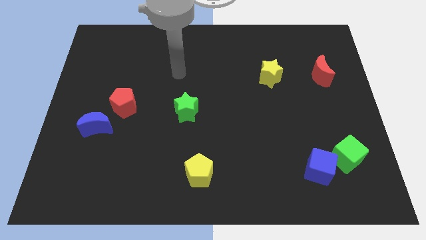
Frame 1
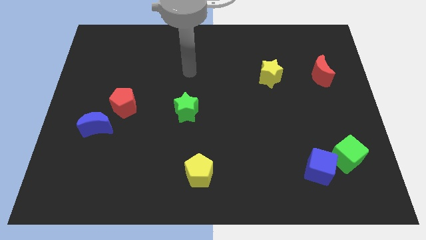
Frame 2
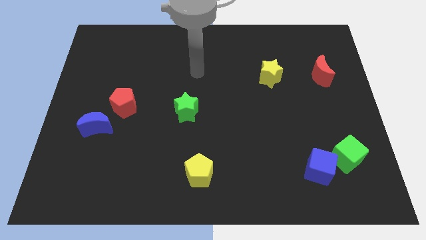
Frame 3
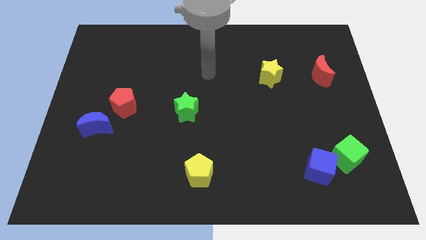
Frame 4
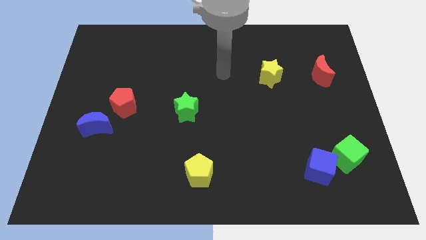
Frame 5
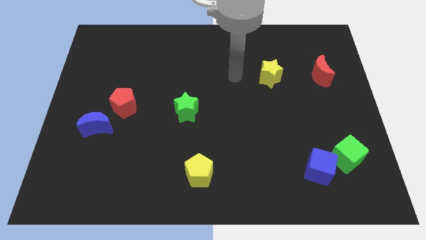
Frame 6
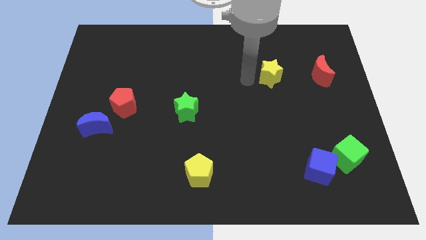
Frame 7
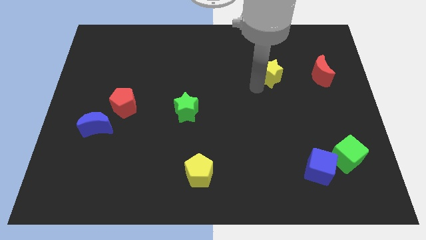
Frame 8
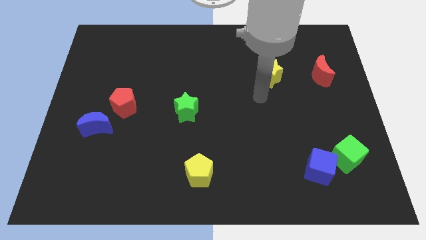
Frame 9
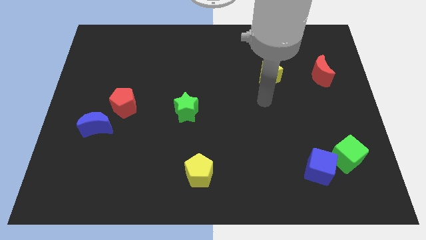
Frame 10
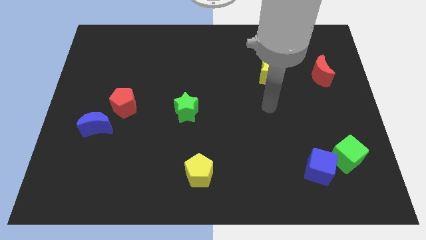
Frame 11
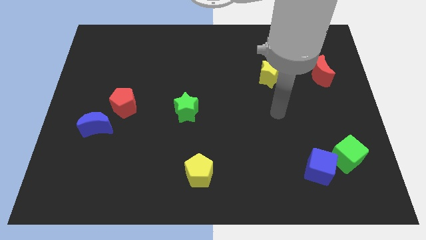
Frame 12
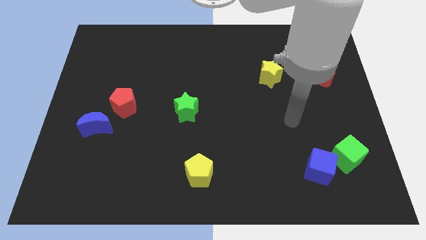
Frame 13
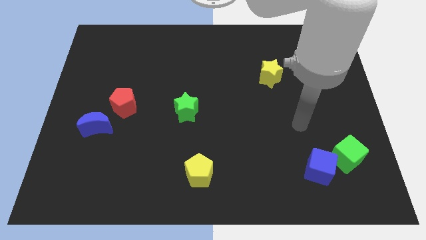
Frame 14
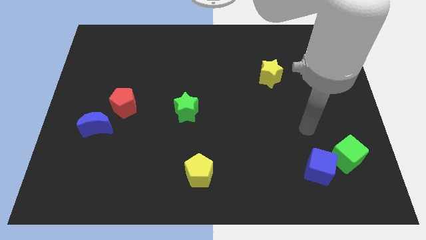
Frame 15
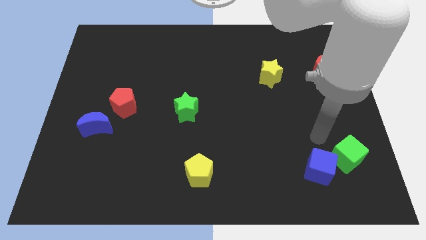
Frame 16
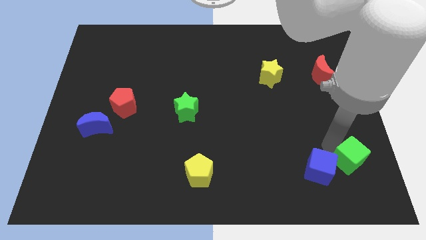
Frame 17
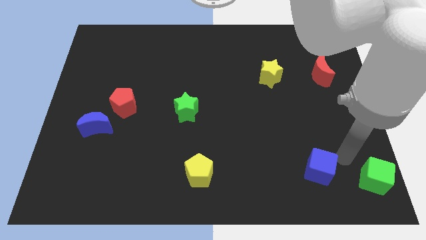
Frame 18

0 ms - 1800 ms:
separate the blue cube from the green cube

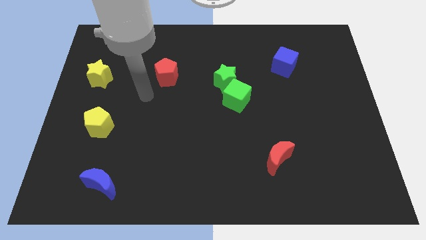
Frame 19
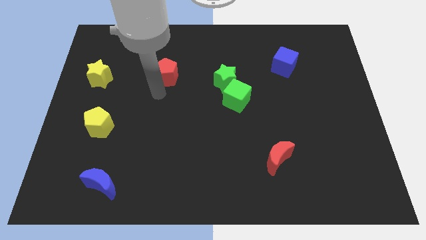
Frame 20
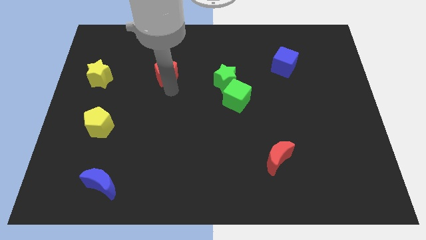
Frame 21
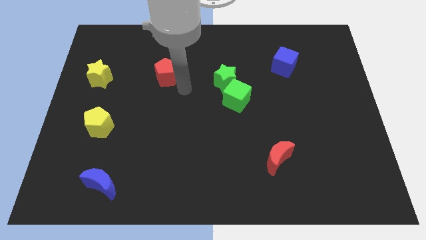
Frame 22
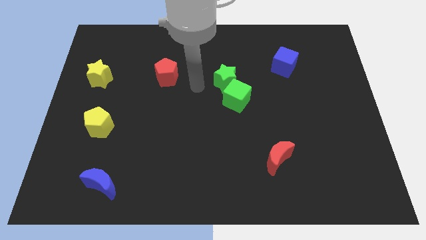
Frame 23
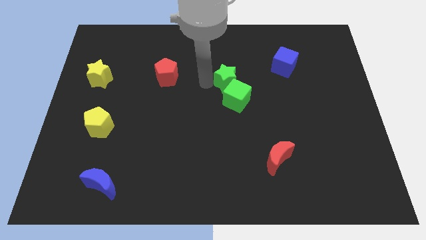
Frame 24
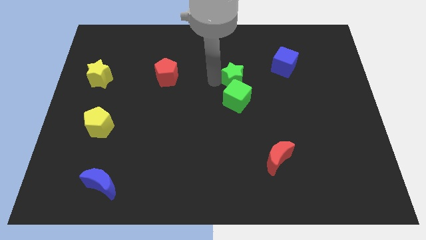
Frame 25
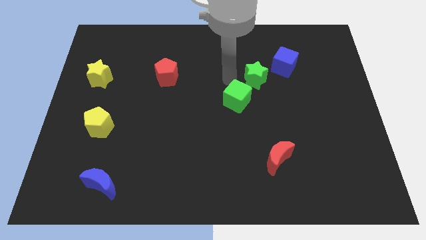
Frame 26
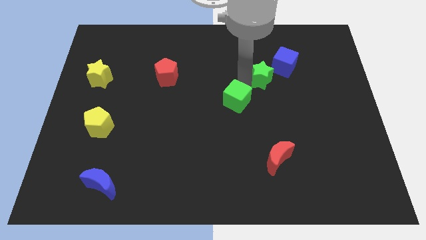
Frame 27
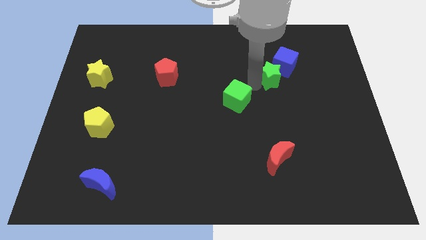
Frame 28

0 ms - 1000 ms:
separate the green cube from the green star

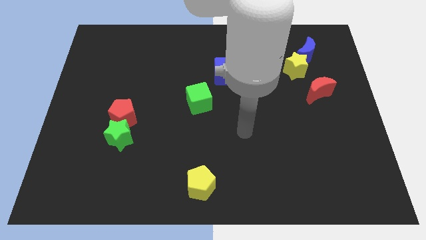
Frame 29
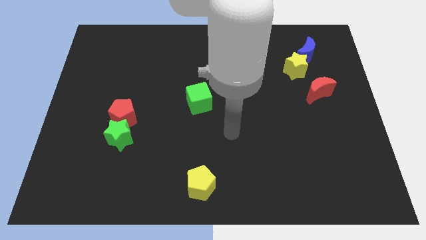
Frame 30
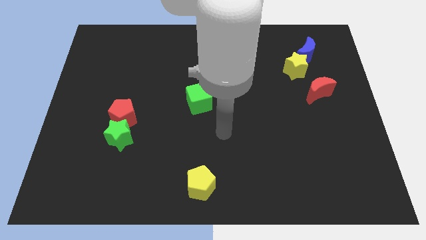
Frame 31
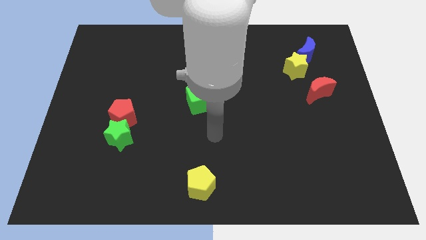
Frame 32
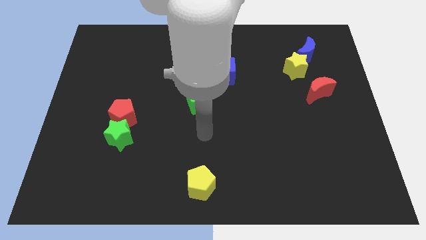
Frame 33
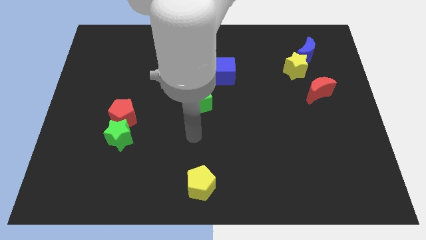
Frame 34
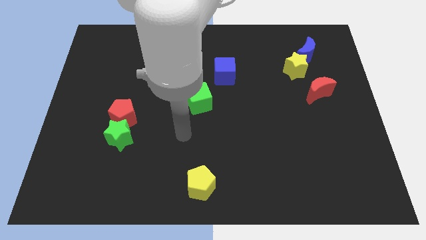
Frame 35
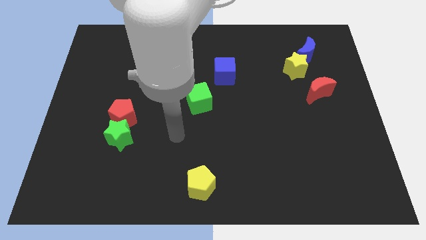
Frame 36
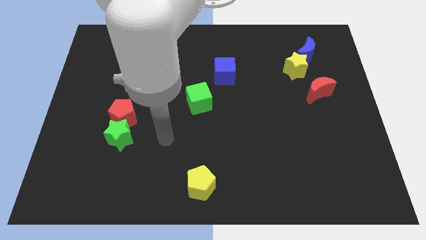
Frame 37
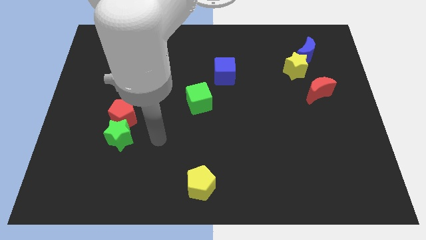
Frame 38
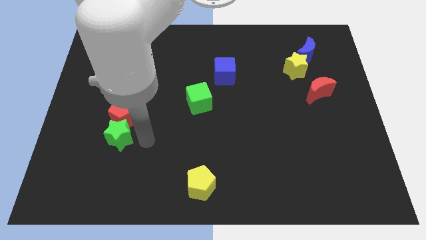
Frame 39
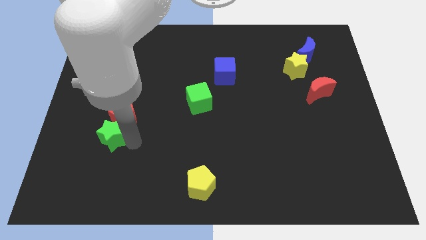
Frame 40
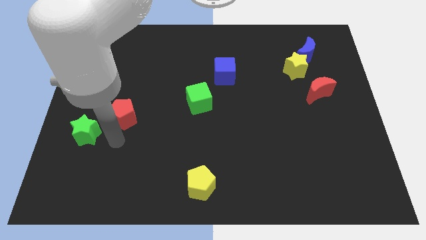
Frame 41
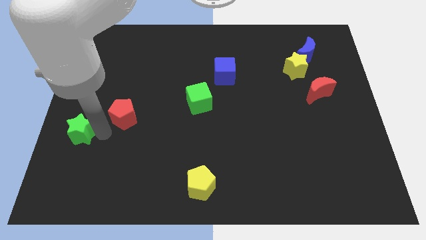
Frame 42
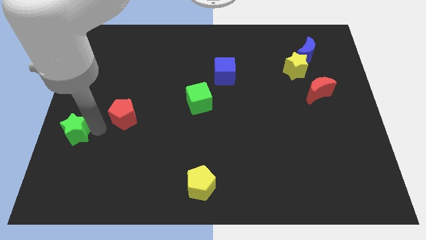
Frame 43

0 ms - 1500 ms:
separate the red pentagon from the green star

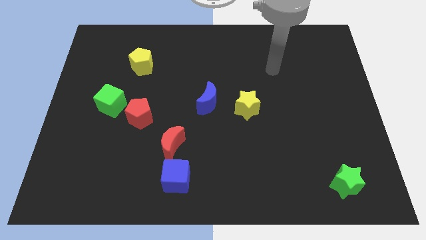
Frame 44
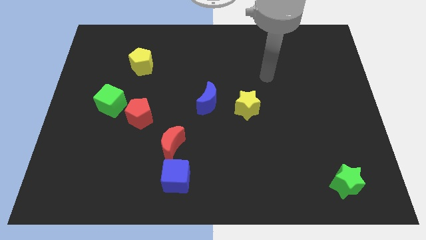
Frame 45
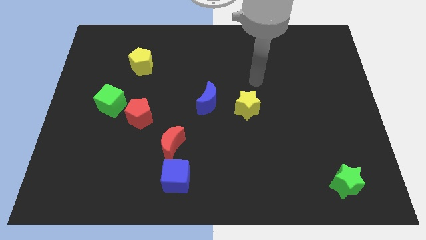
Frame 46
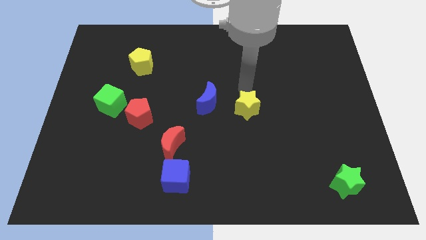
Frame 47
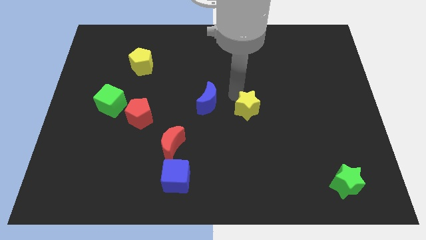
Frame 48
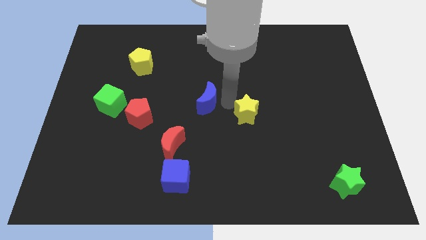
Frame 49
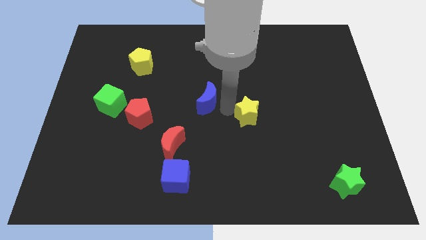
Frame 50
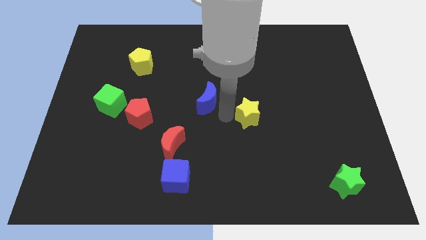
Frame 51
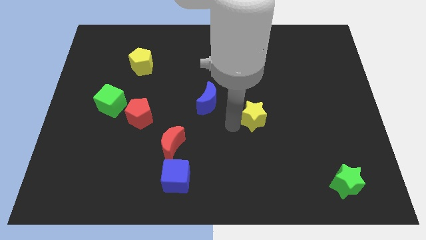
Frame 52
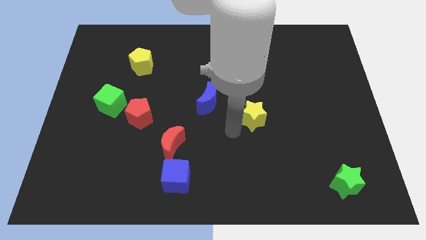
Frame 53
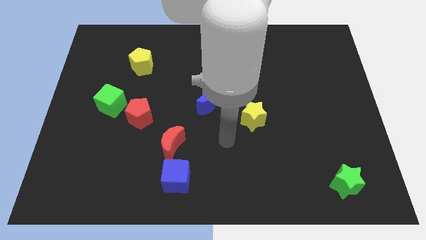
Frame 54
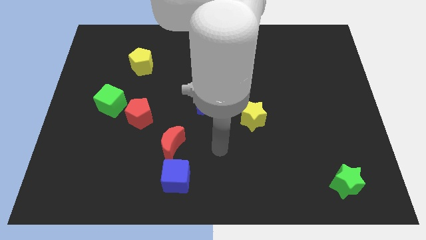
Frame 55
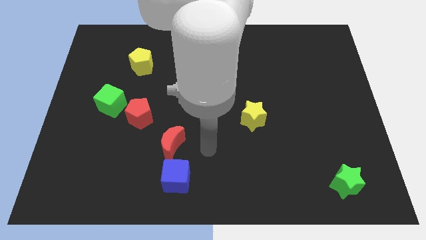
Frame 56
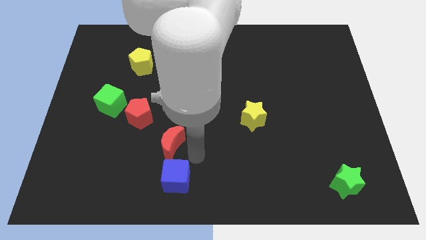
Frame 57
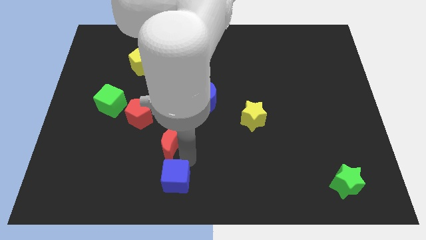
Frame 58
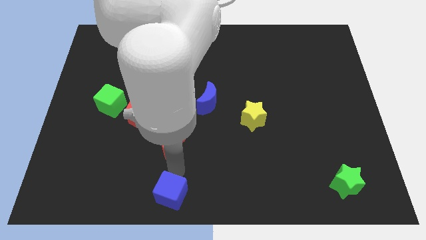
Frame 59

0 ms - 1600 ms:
pull the red moon apart from the blue cube

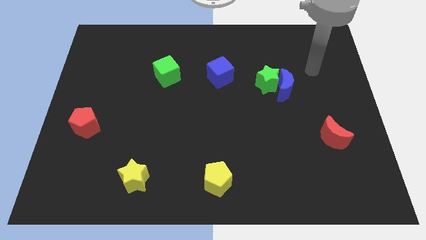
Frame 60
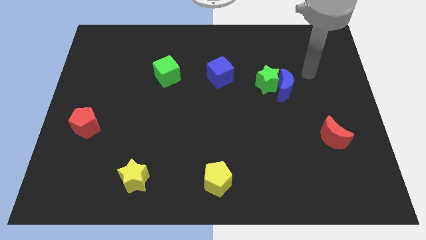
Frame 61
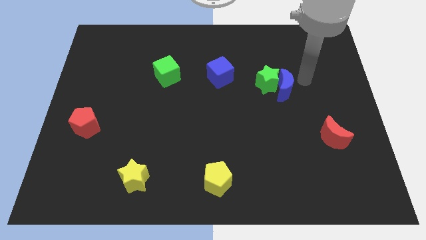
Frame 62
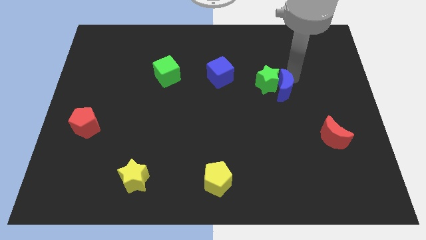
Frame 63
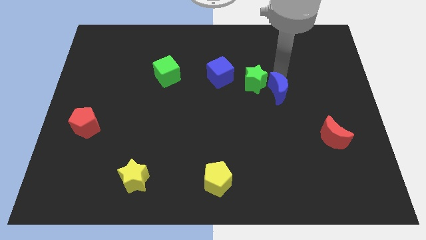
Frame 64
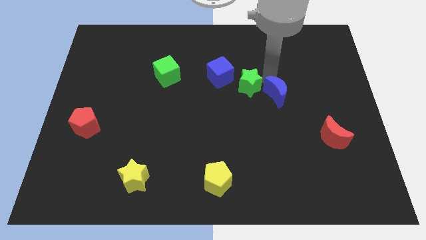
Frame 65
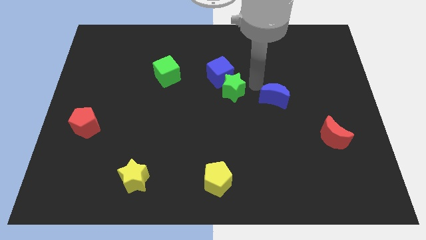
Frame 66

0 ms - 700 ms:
separate the blue moon from the green star

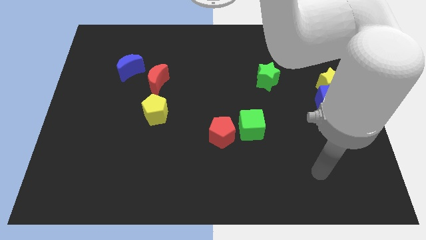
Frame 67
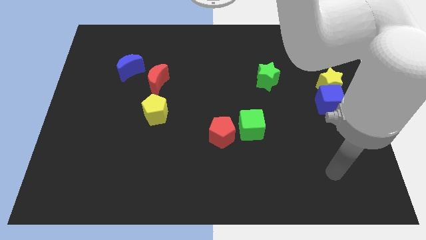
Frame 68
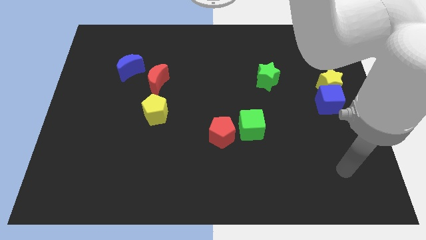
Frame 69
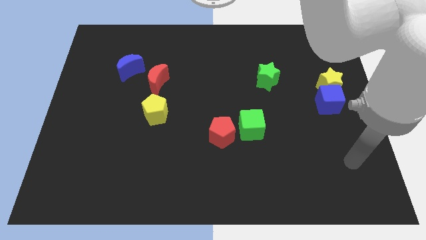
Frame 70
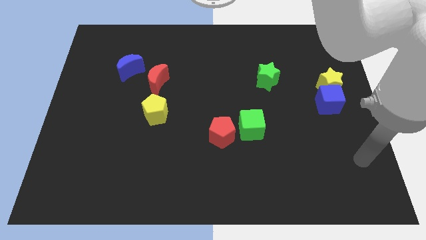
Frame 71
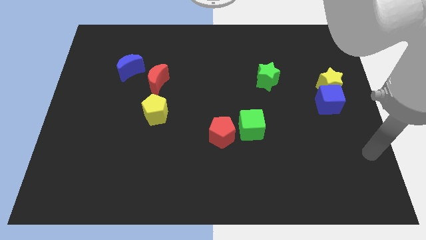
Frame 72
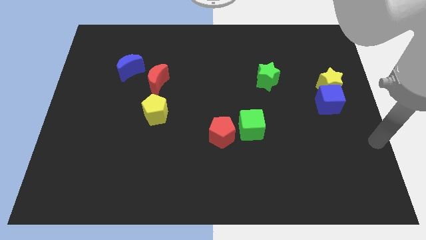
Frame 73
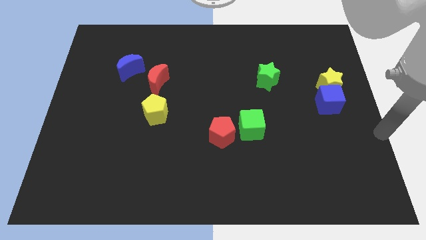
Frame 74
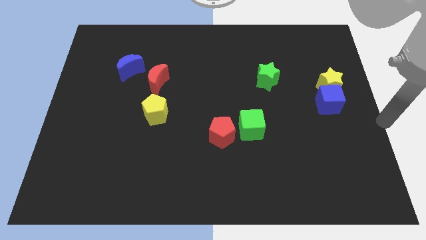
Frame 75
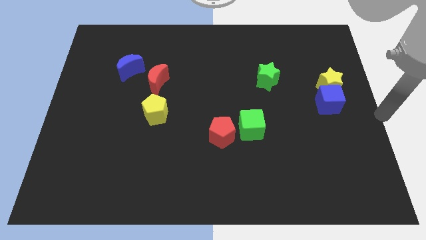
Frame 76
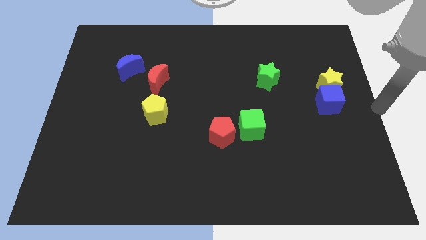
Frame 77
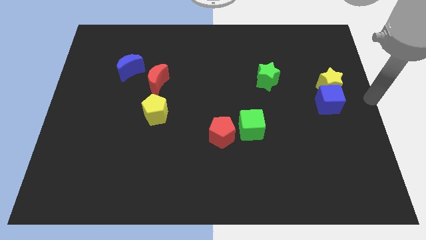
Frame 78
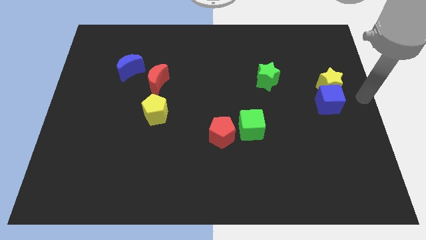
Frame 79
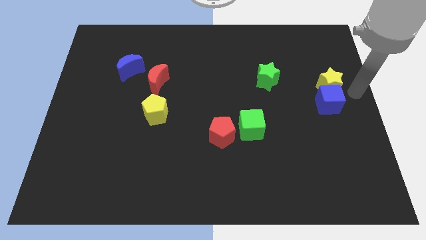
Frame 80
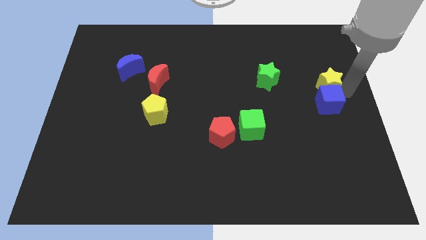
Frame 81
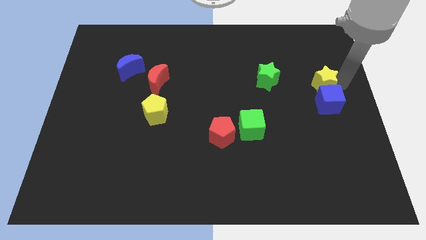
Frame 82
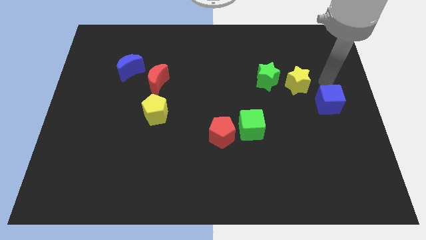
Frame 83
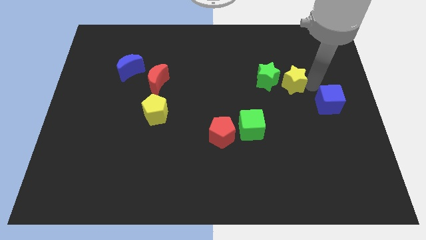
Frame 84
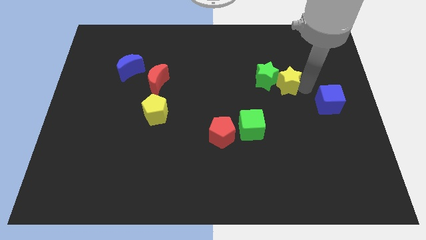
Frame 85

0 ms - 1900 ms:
move the blue cube away from the yellow star

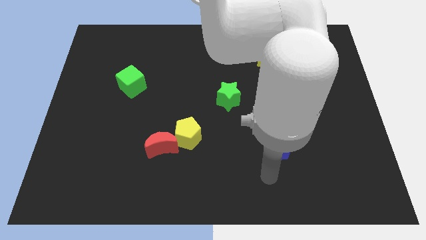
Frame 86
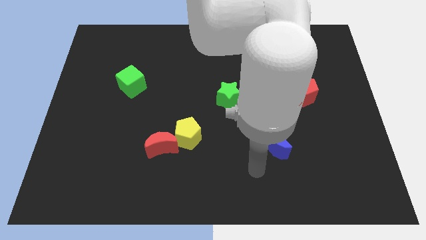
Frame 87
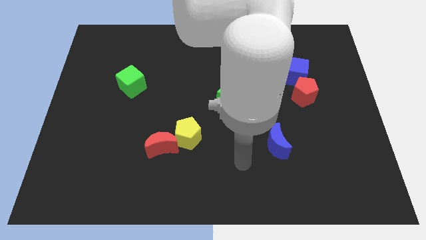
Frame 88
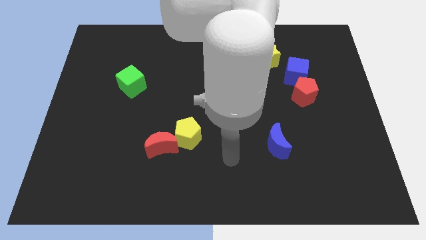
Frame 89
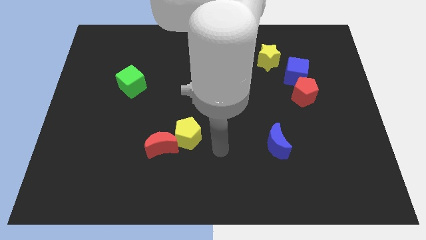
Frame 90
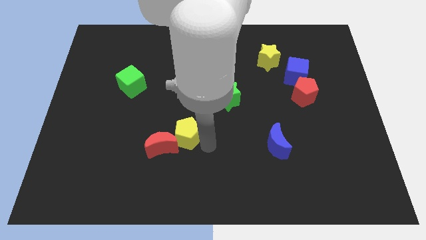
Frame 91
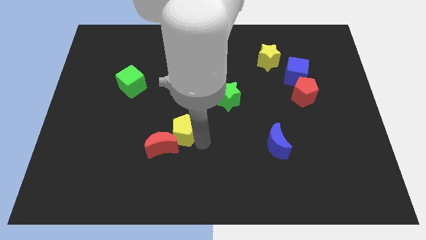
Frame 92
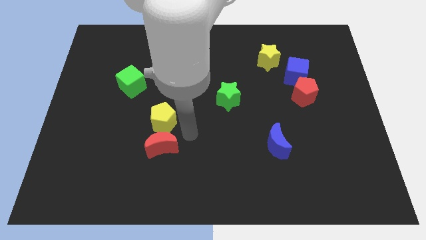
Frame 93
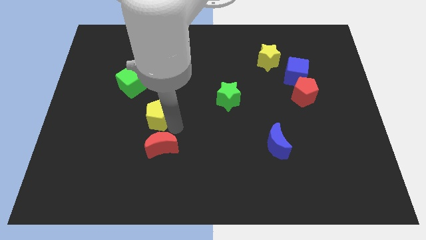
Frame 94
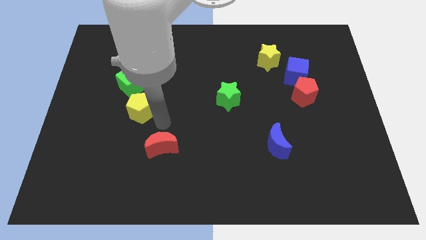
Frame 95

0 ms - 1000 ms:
separate the red moon from the yellow pentagon
